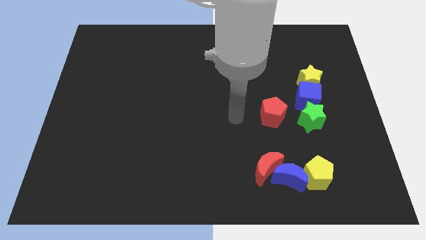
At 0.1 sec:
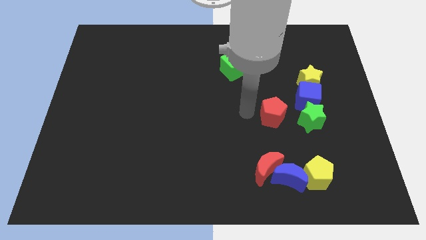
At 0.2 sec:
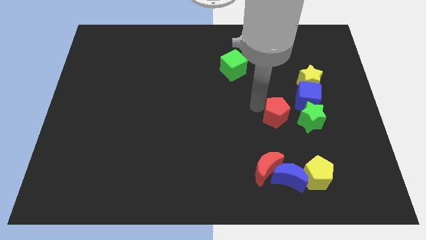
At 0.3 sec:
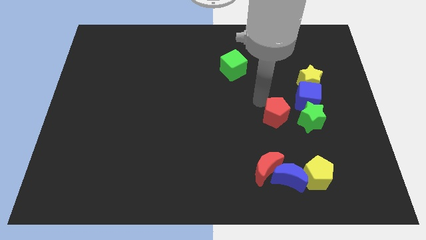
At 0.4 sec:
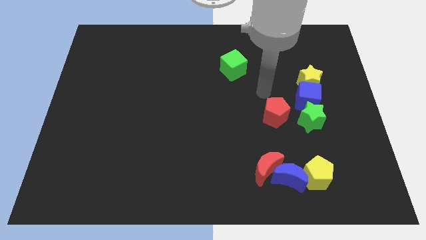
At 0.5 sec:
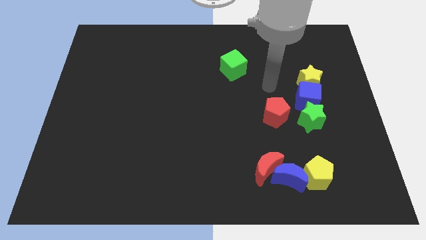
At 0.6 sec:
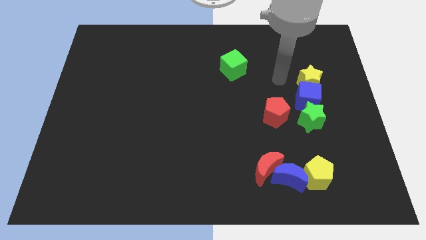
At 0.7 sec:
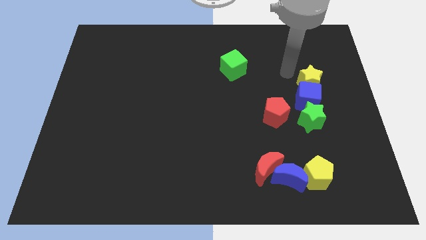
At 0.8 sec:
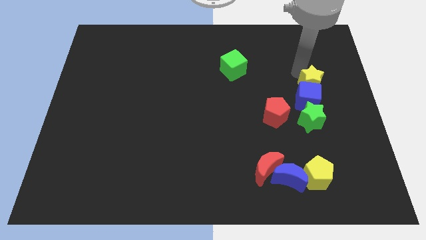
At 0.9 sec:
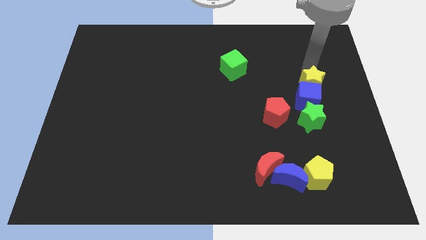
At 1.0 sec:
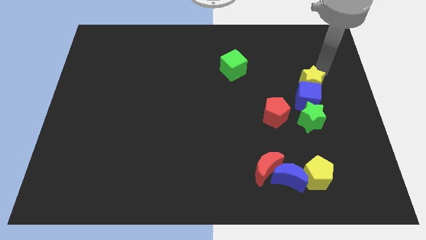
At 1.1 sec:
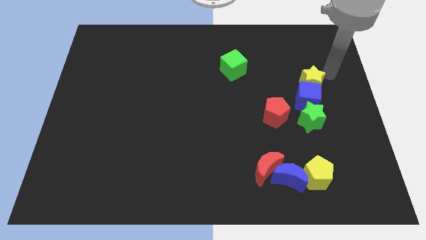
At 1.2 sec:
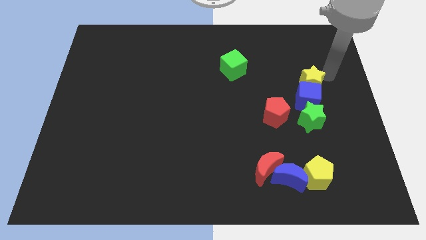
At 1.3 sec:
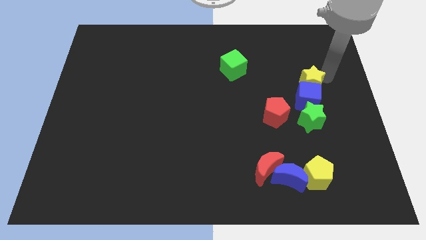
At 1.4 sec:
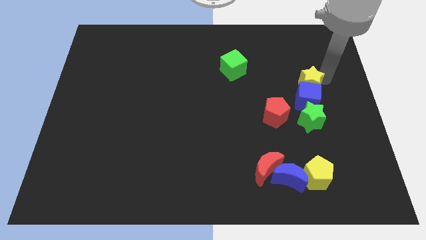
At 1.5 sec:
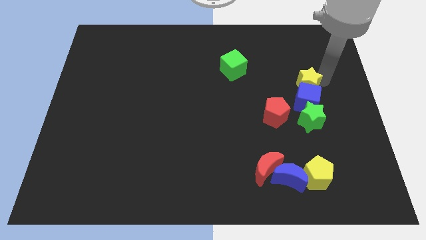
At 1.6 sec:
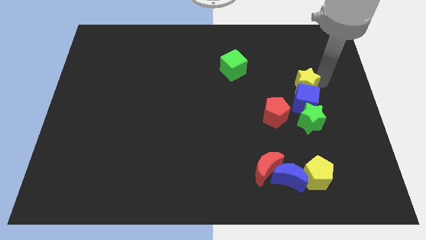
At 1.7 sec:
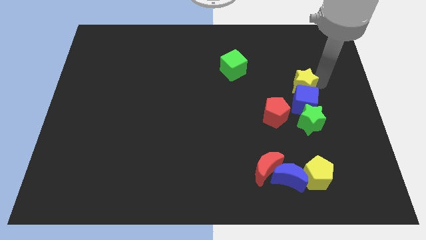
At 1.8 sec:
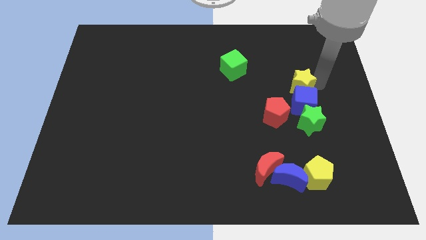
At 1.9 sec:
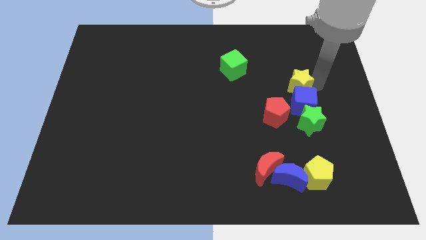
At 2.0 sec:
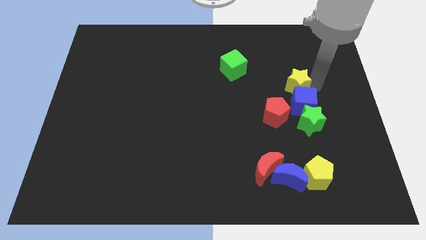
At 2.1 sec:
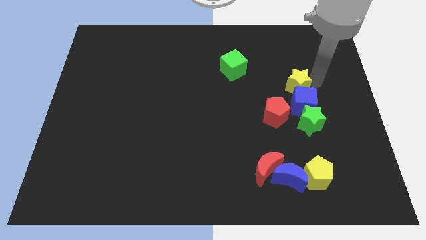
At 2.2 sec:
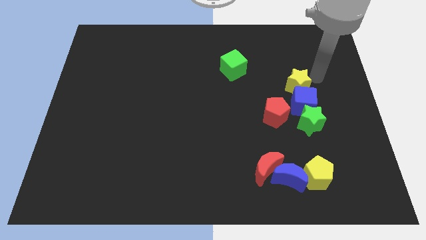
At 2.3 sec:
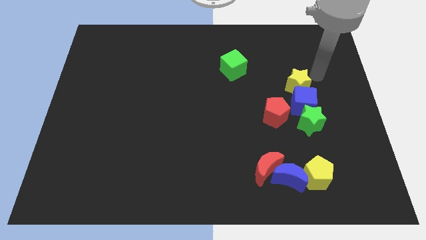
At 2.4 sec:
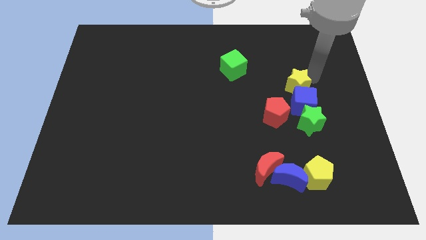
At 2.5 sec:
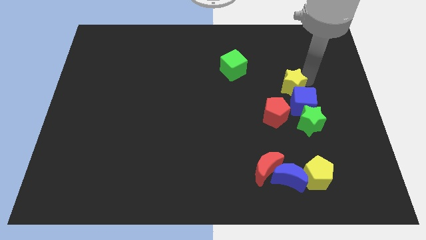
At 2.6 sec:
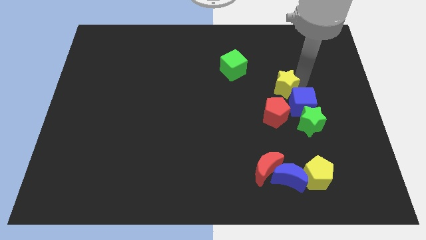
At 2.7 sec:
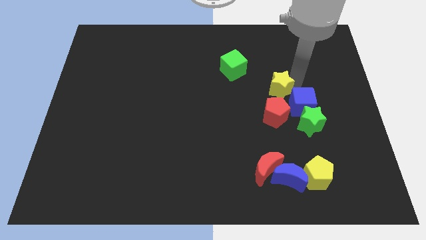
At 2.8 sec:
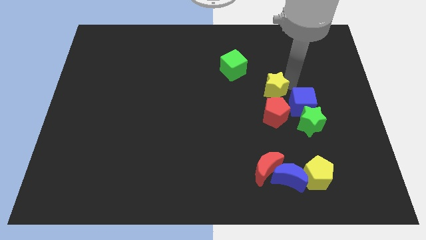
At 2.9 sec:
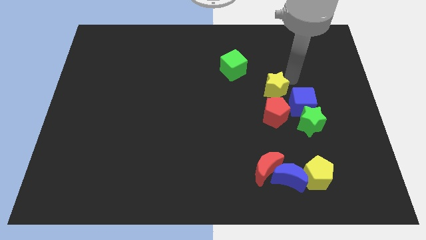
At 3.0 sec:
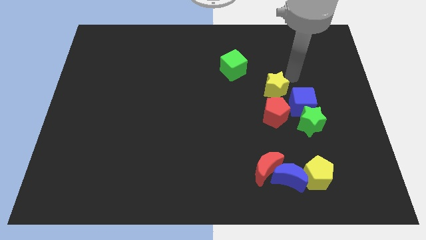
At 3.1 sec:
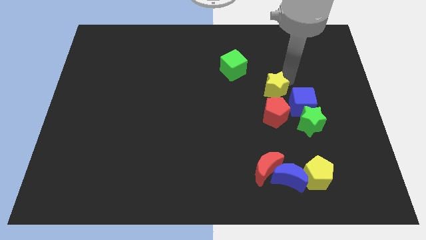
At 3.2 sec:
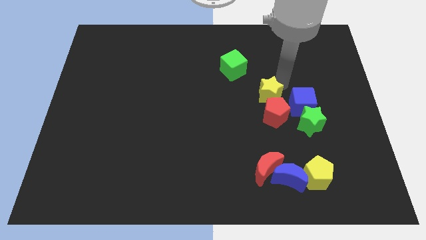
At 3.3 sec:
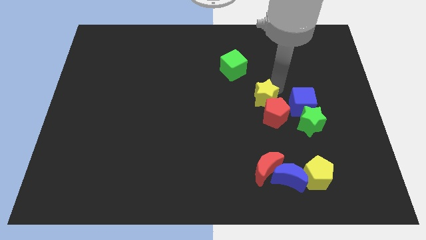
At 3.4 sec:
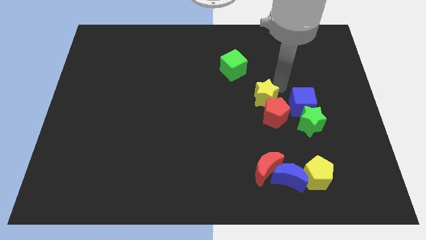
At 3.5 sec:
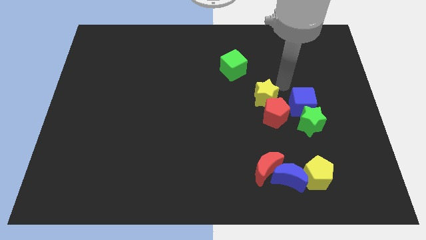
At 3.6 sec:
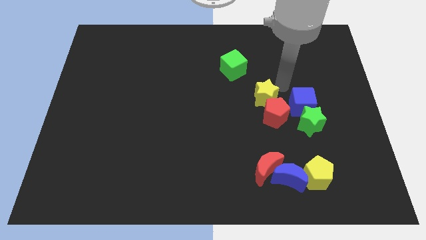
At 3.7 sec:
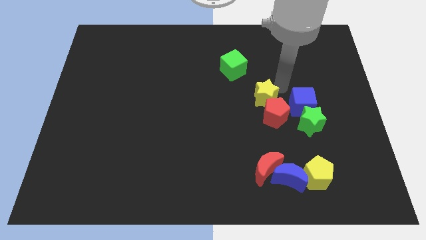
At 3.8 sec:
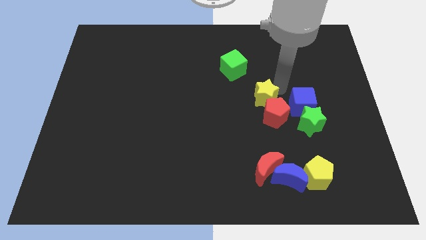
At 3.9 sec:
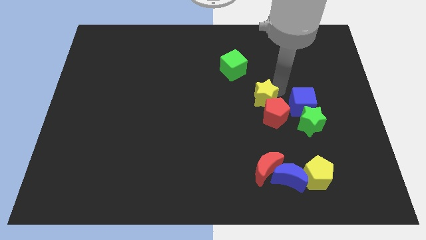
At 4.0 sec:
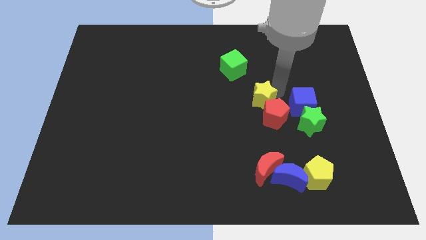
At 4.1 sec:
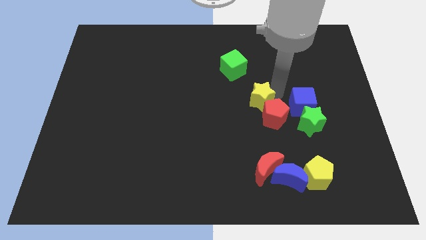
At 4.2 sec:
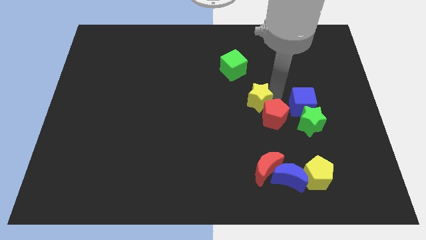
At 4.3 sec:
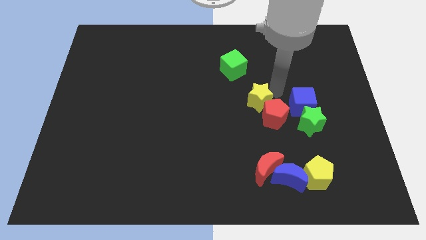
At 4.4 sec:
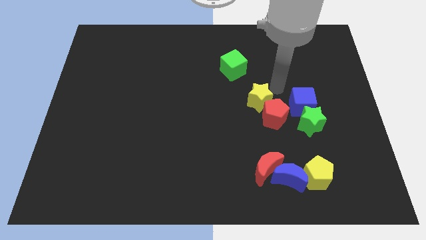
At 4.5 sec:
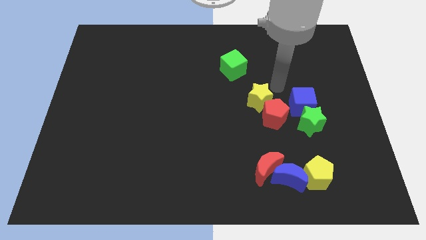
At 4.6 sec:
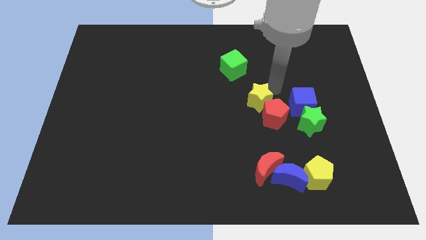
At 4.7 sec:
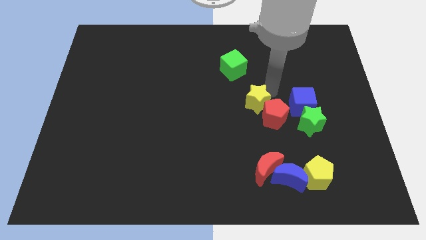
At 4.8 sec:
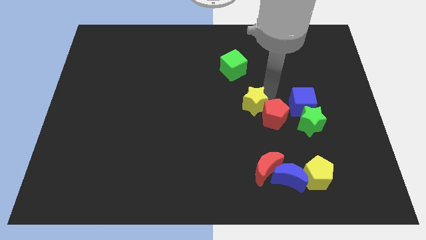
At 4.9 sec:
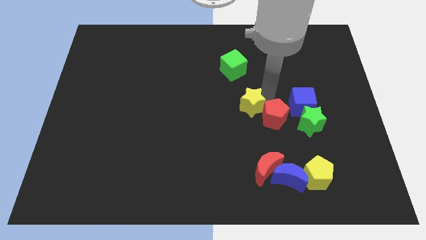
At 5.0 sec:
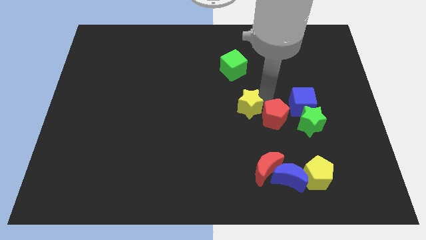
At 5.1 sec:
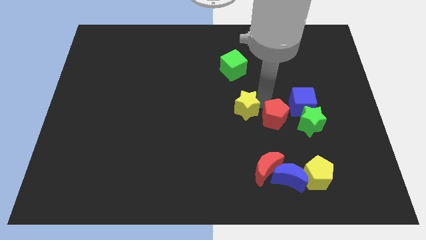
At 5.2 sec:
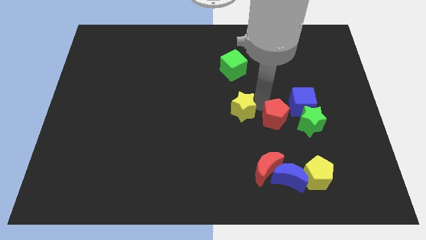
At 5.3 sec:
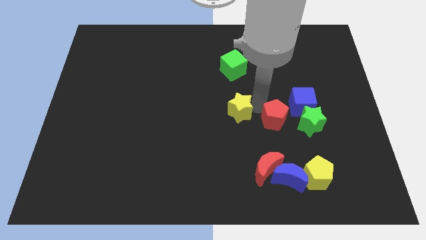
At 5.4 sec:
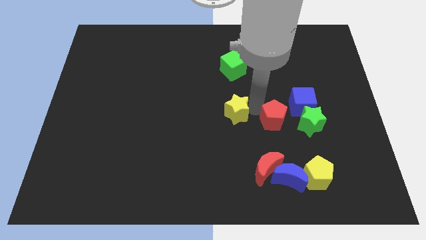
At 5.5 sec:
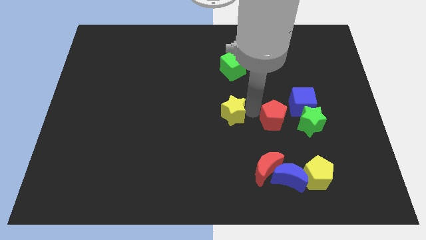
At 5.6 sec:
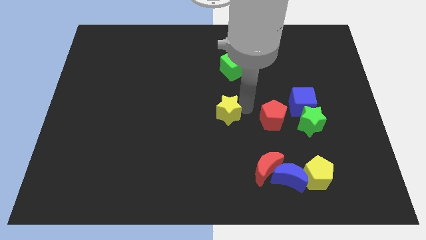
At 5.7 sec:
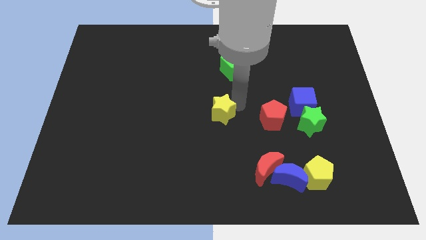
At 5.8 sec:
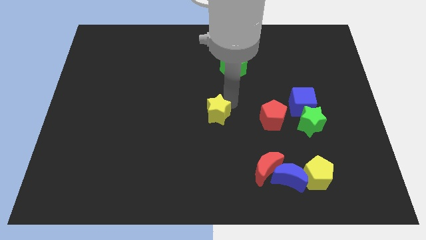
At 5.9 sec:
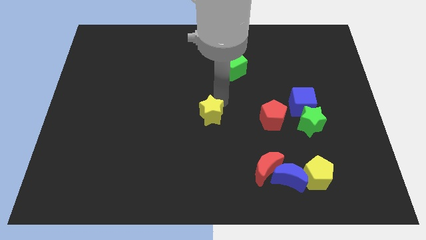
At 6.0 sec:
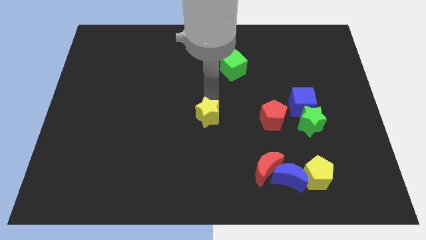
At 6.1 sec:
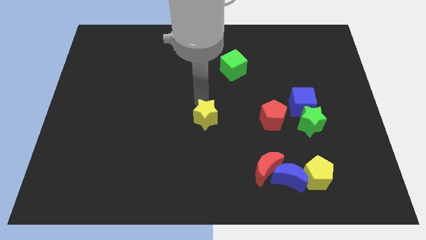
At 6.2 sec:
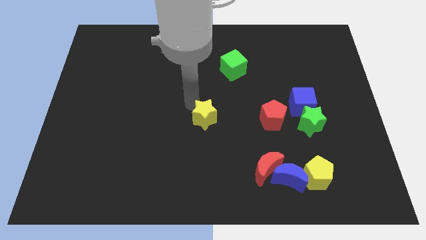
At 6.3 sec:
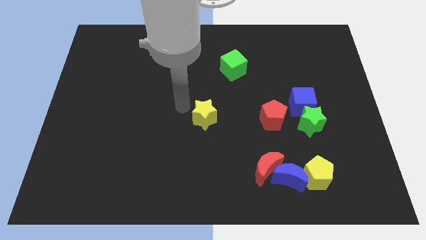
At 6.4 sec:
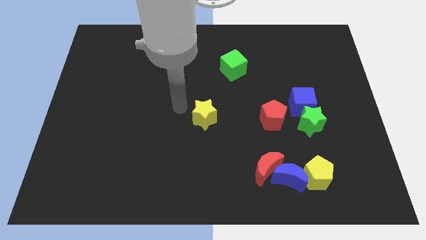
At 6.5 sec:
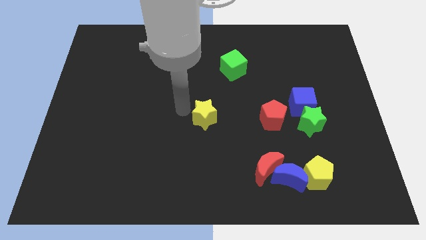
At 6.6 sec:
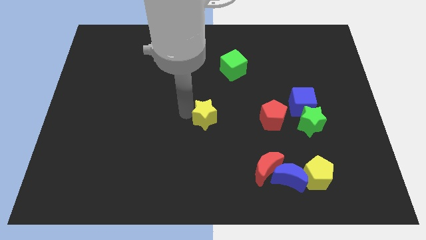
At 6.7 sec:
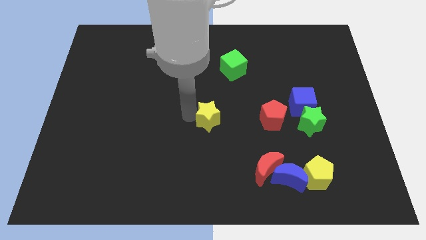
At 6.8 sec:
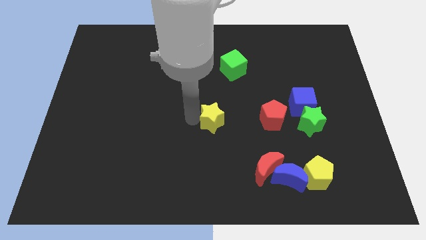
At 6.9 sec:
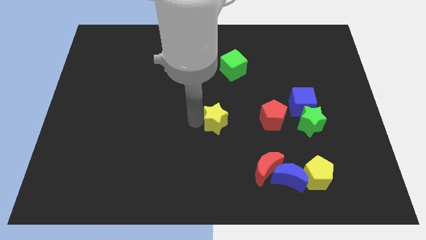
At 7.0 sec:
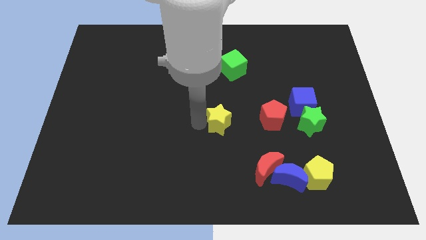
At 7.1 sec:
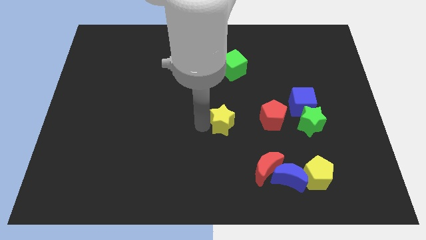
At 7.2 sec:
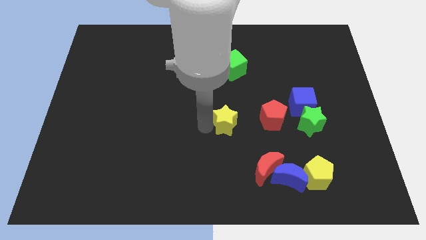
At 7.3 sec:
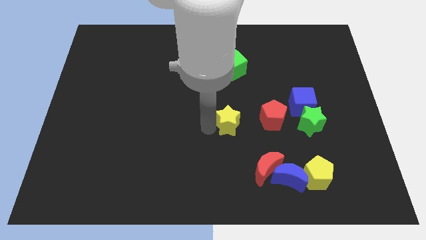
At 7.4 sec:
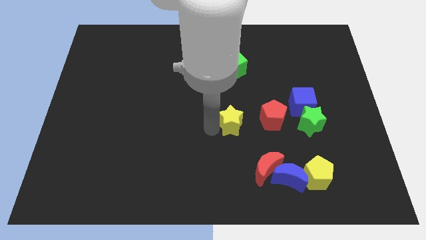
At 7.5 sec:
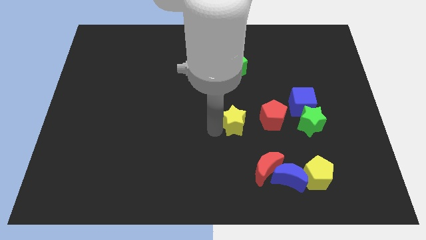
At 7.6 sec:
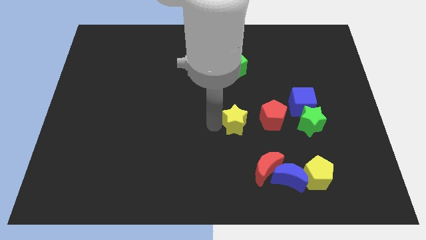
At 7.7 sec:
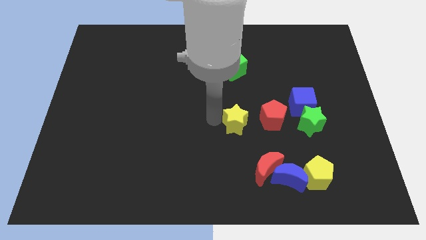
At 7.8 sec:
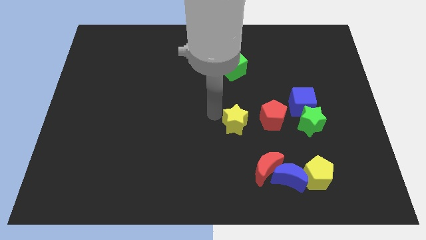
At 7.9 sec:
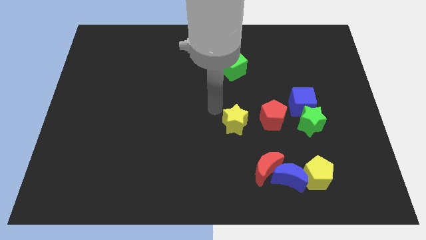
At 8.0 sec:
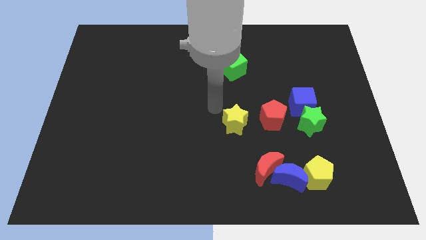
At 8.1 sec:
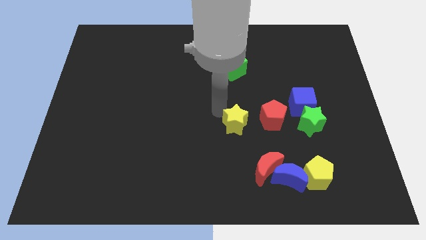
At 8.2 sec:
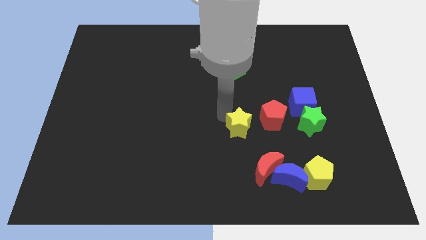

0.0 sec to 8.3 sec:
push the yellow star to the bottom left side of the red pentagon
